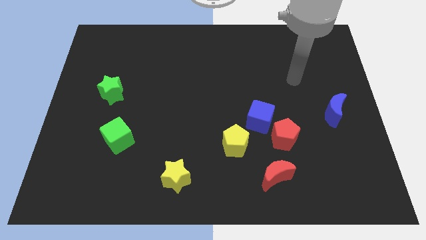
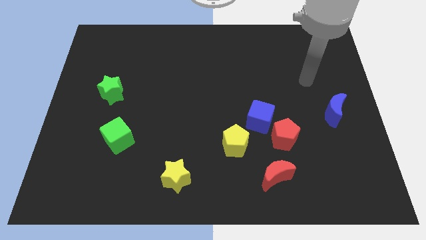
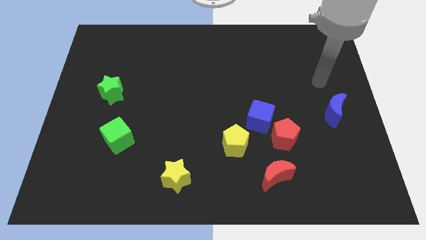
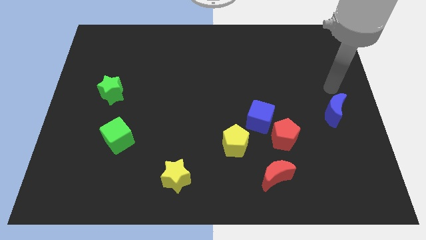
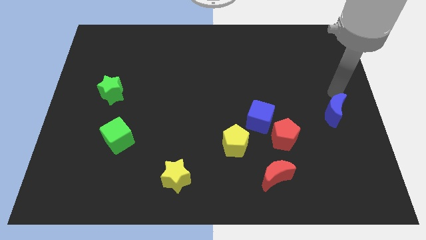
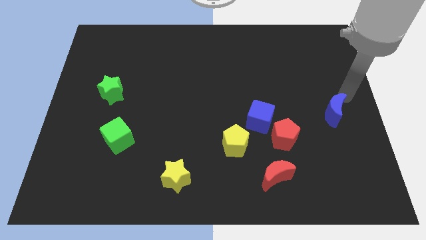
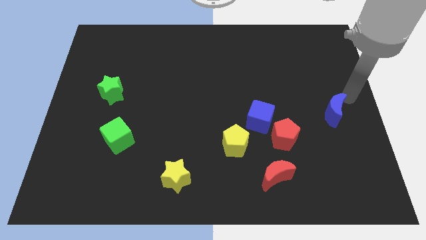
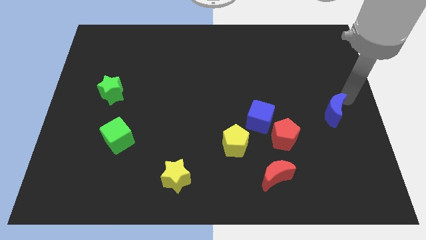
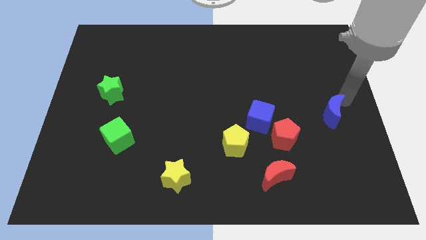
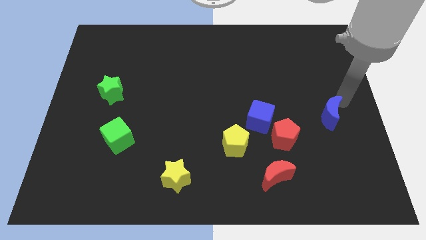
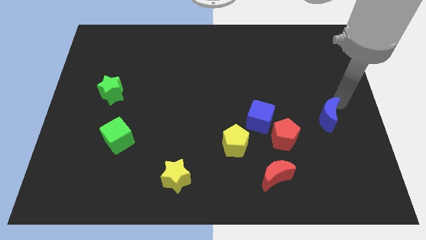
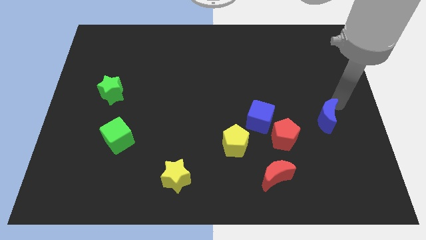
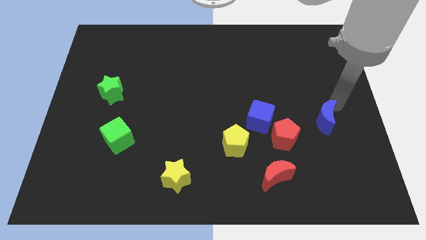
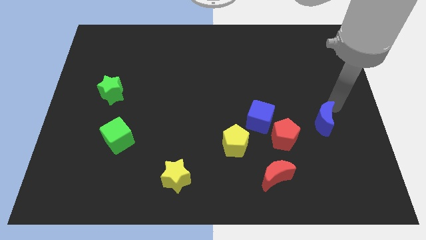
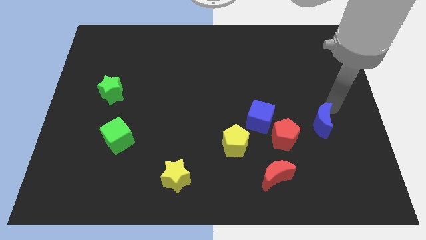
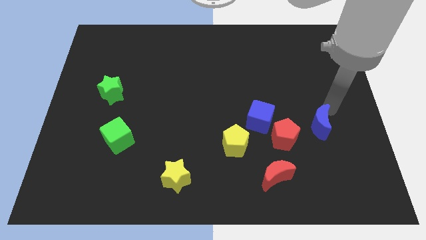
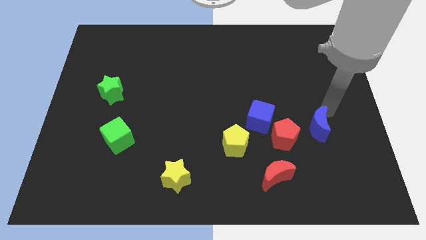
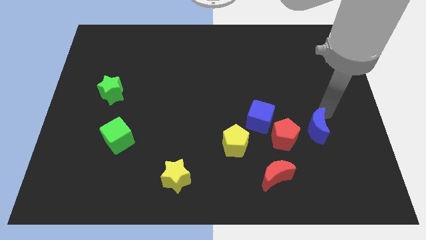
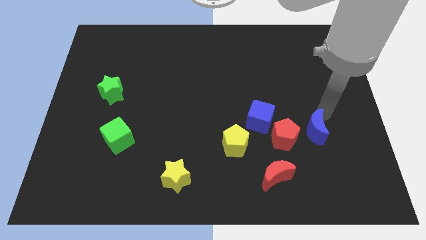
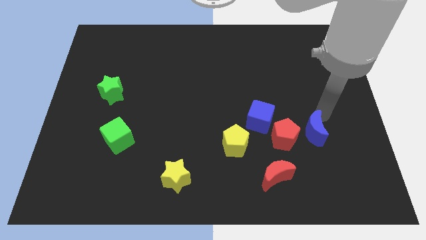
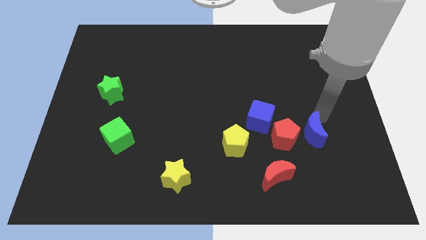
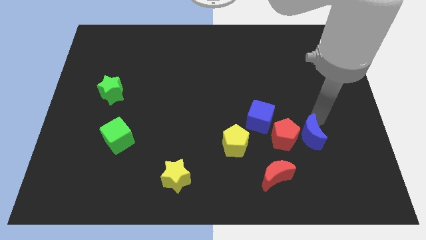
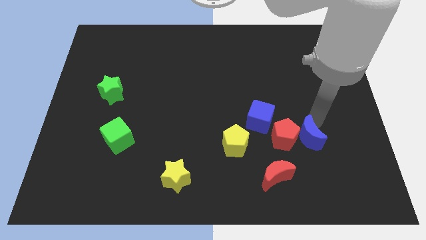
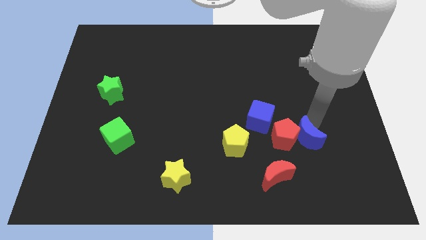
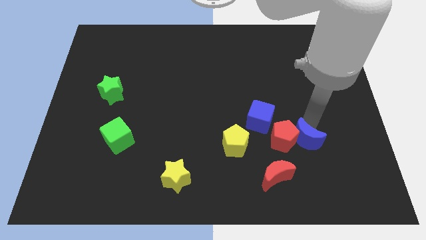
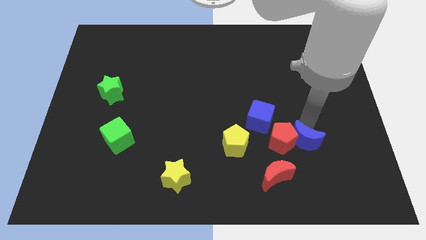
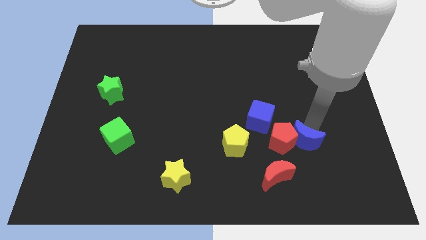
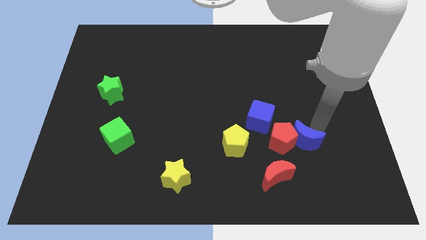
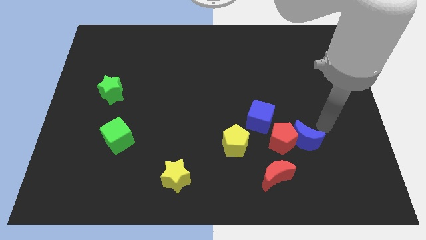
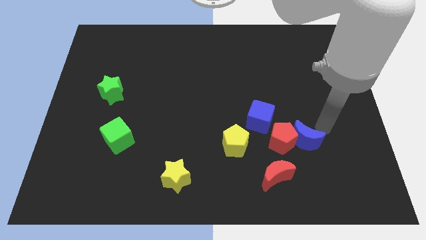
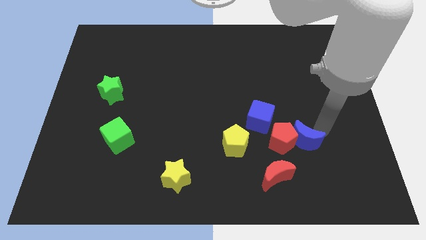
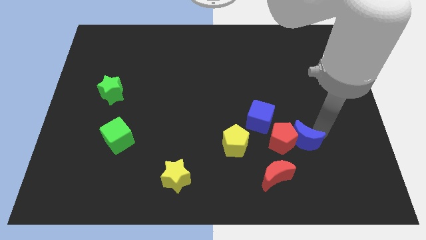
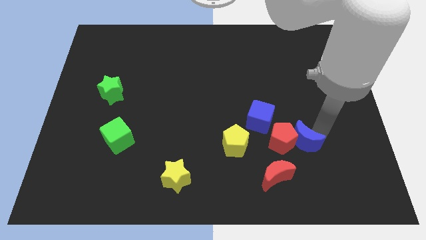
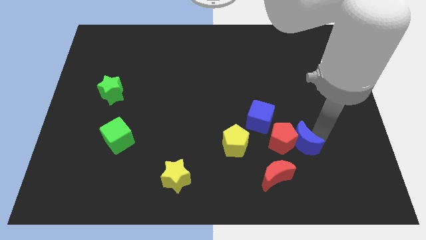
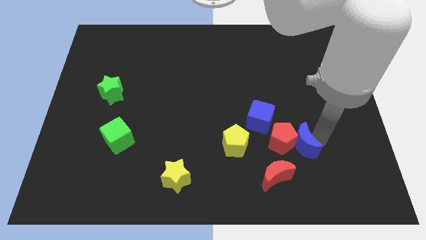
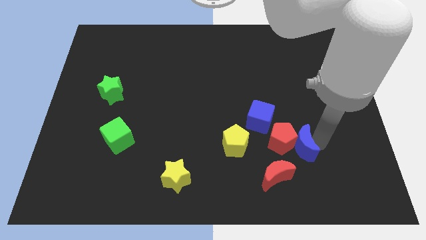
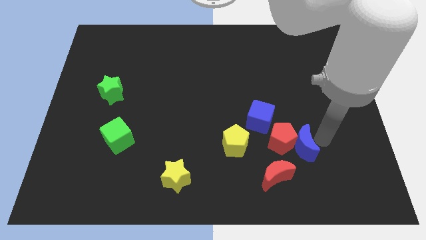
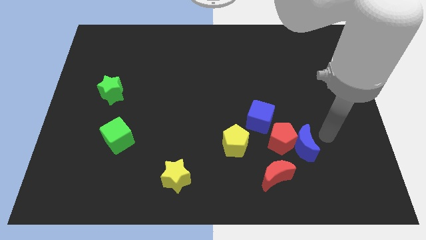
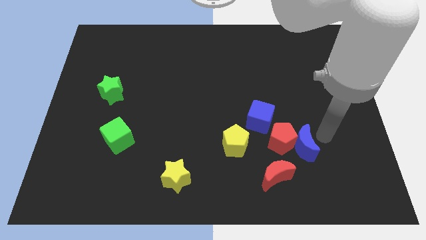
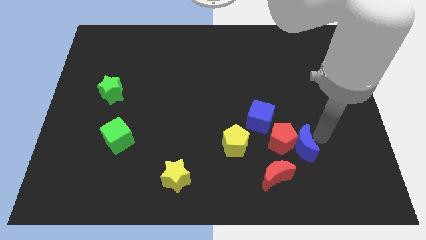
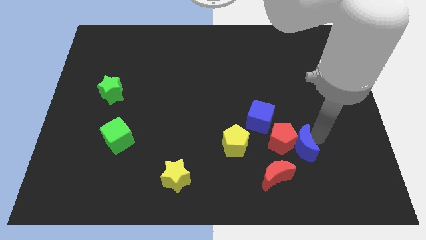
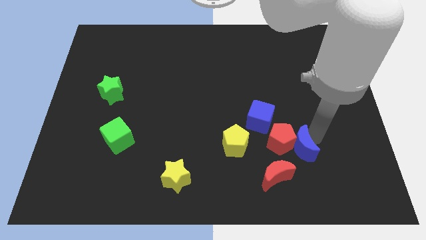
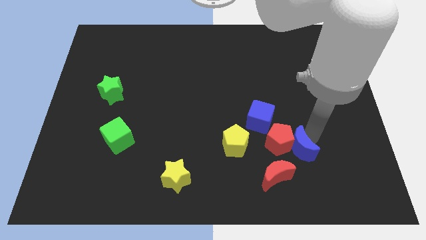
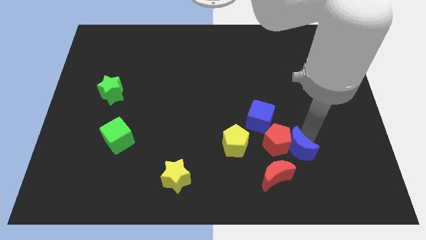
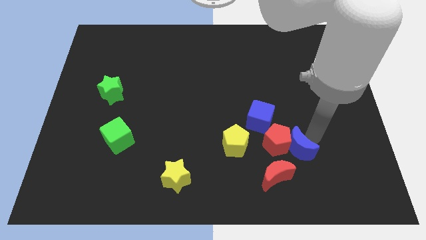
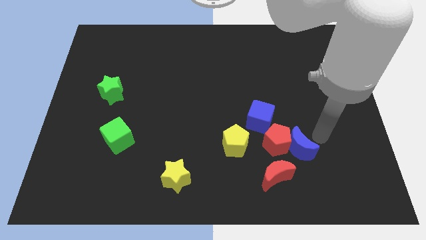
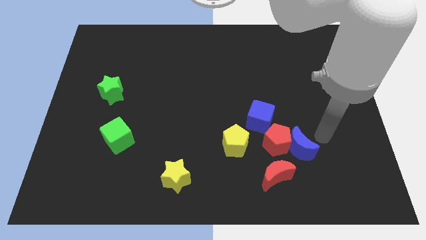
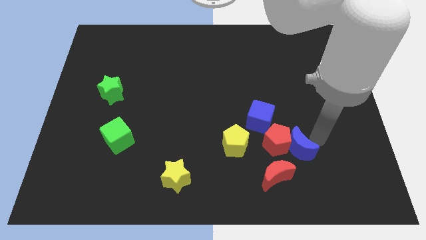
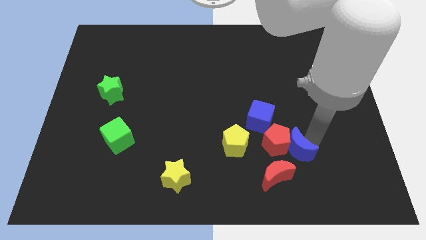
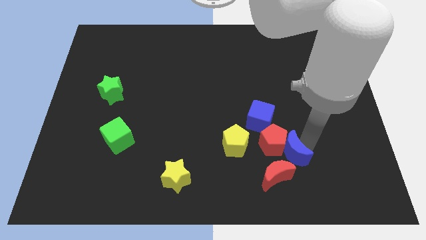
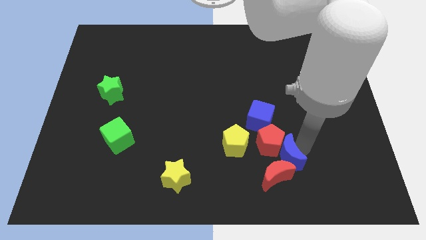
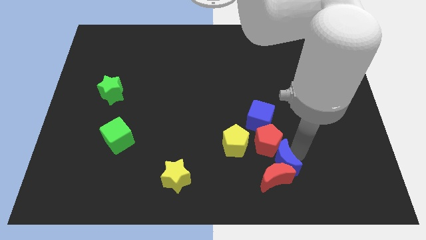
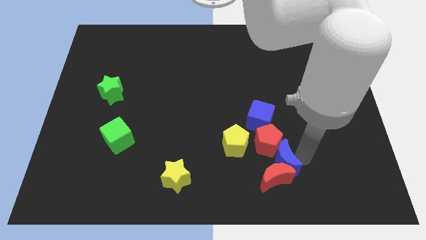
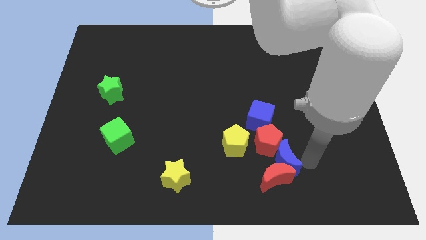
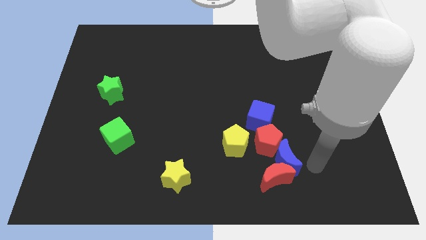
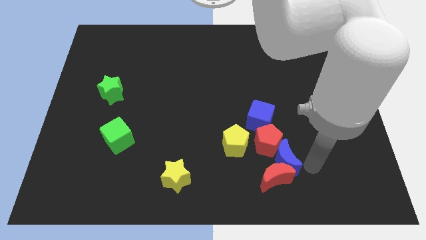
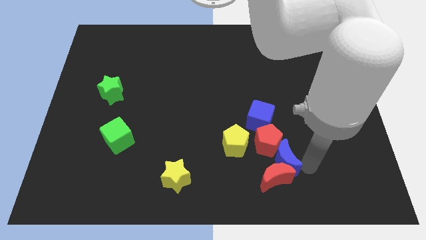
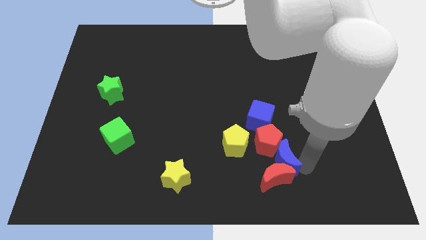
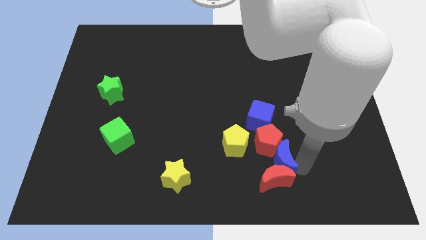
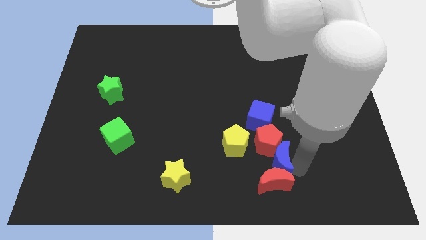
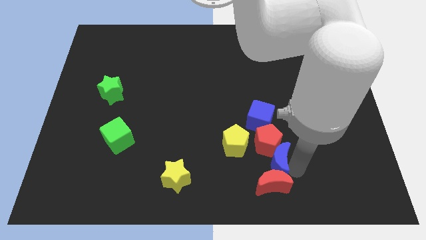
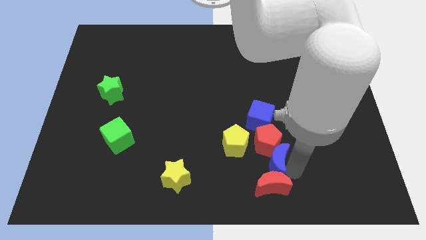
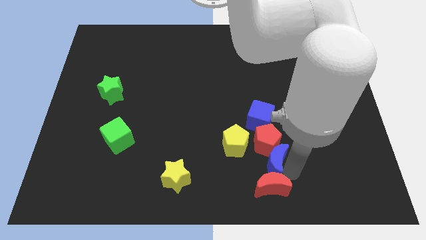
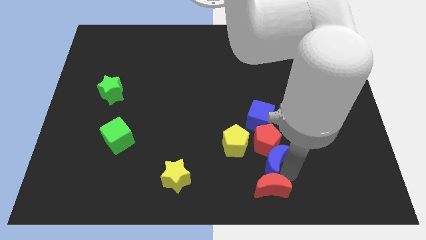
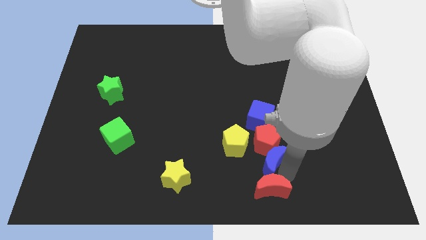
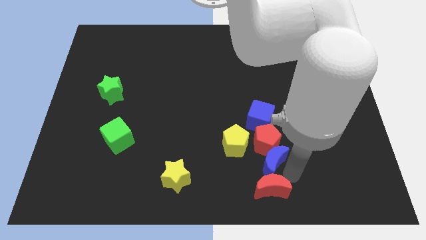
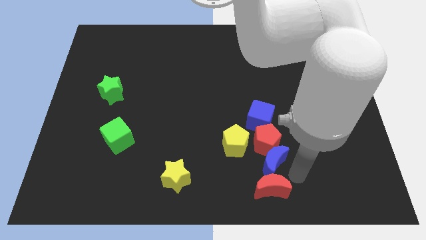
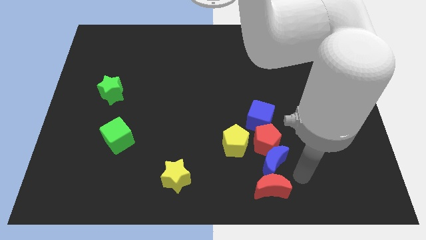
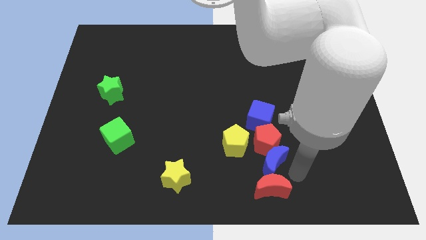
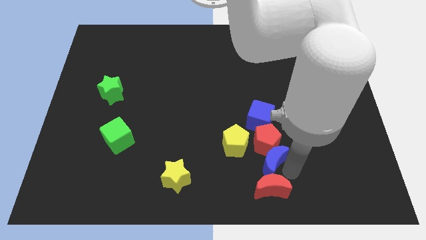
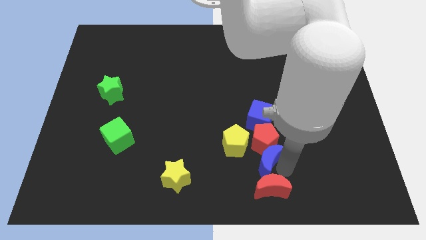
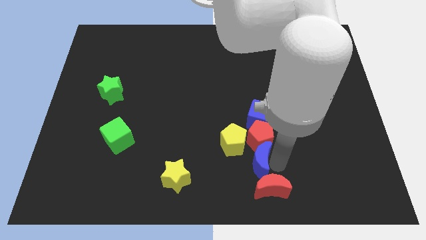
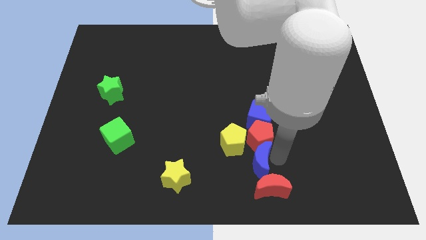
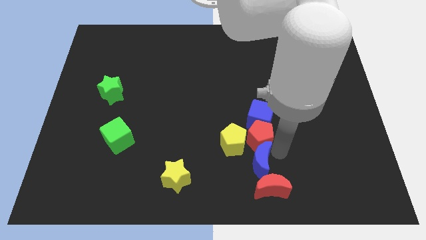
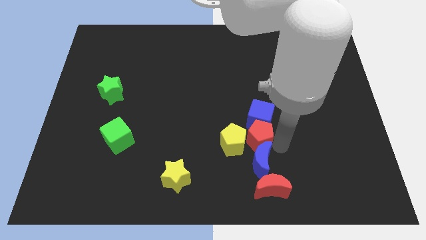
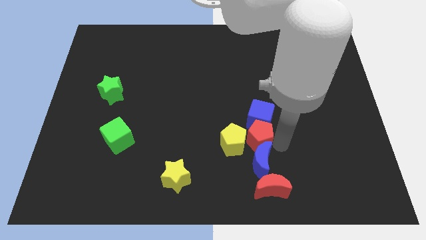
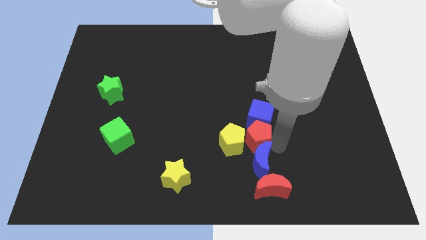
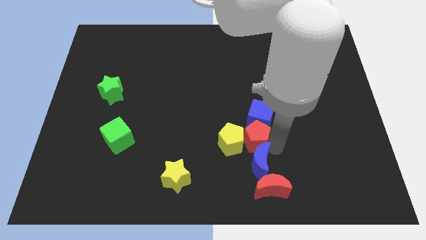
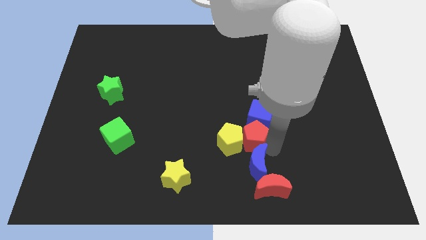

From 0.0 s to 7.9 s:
slide the blue moon to the bottom side
